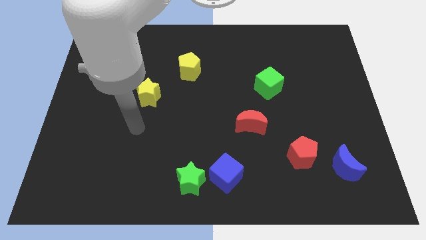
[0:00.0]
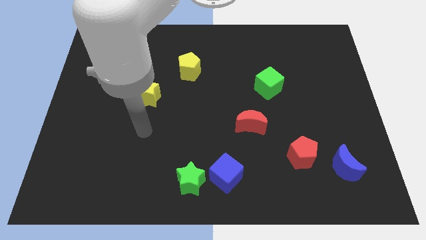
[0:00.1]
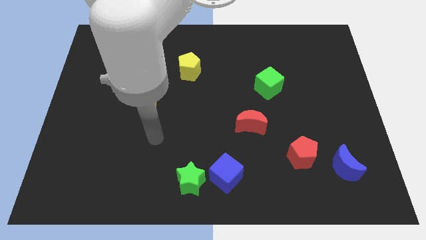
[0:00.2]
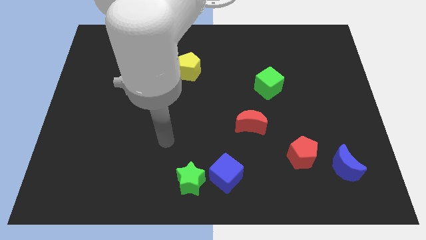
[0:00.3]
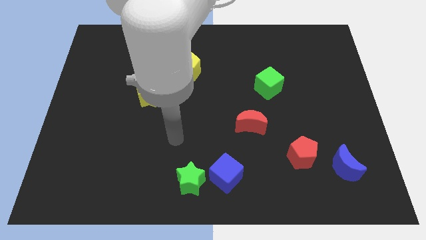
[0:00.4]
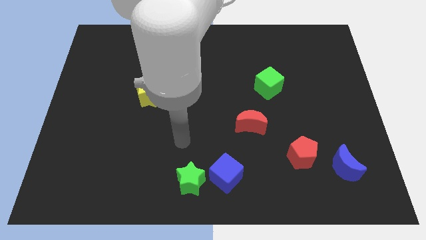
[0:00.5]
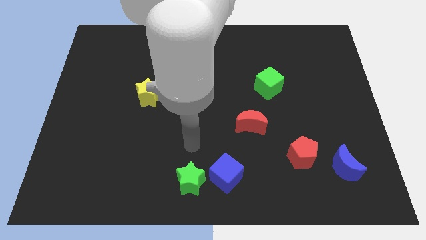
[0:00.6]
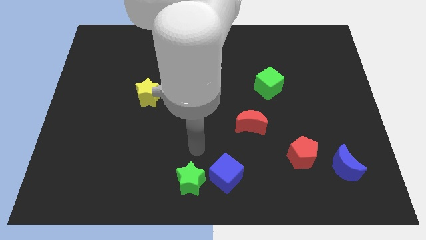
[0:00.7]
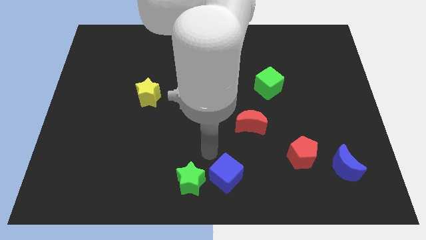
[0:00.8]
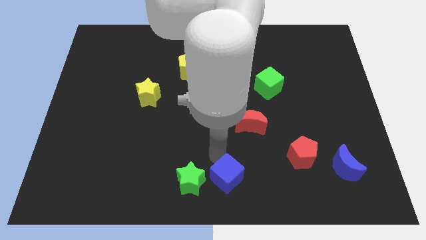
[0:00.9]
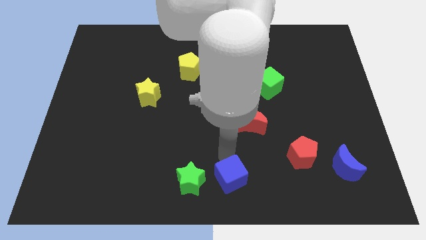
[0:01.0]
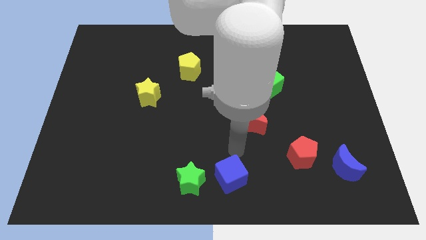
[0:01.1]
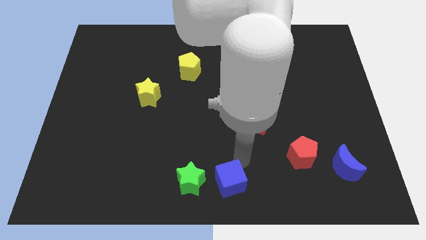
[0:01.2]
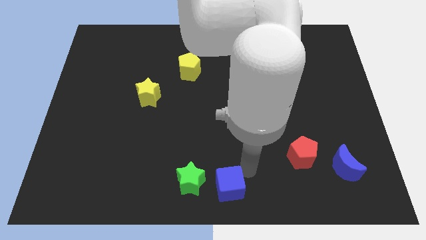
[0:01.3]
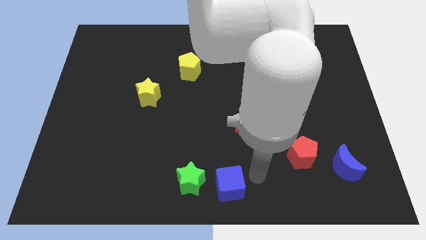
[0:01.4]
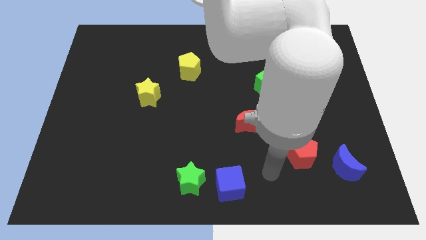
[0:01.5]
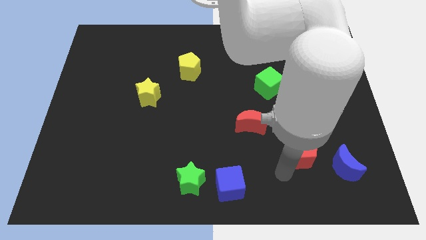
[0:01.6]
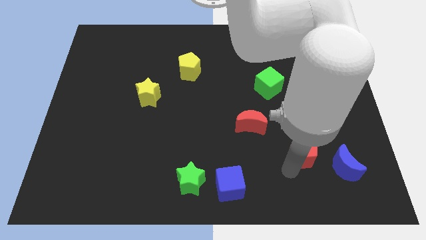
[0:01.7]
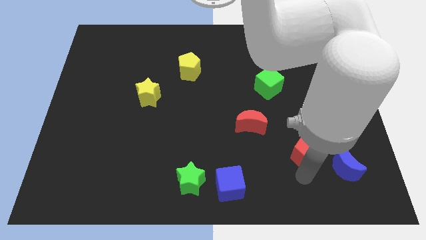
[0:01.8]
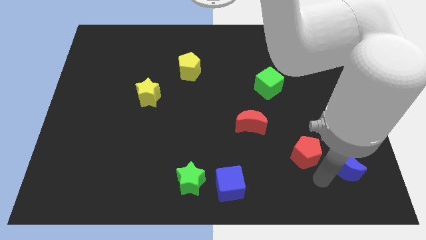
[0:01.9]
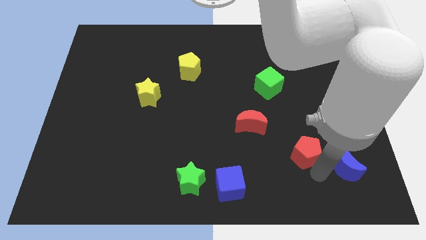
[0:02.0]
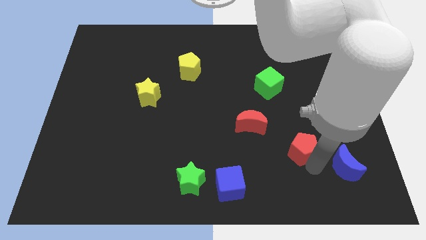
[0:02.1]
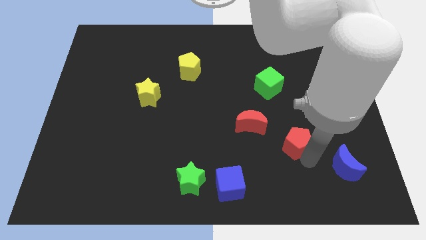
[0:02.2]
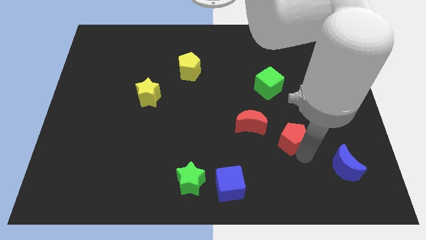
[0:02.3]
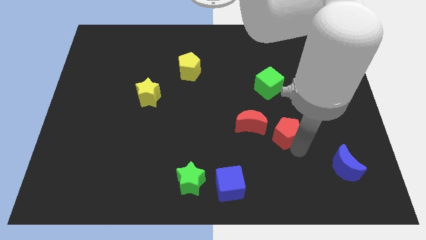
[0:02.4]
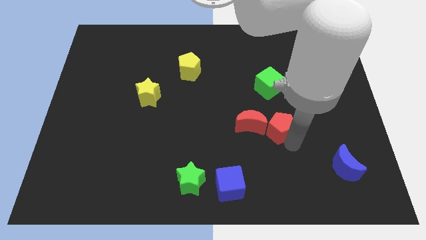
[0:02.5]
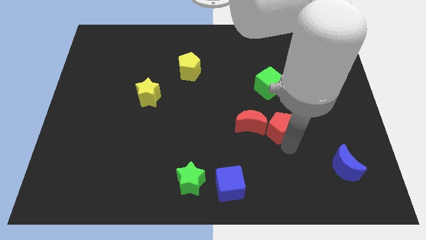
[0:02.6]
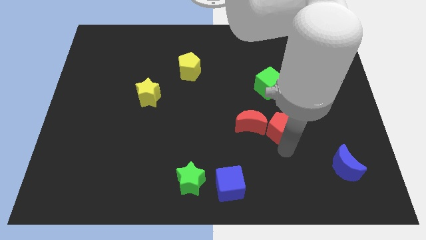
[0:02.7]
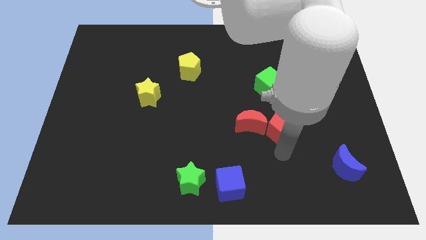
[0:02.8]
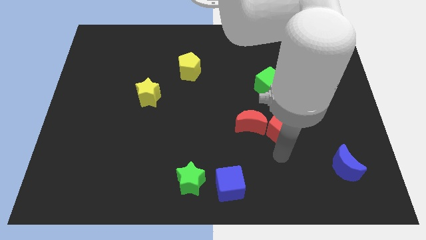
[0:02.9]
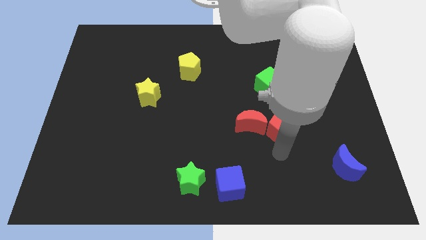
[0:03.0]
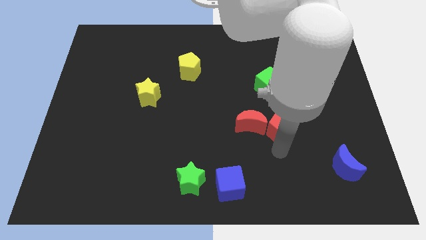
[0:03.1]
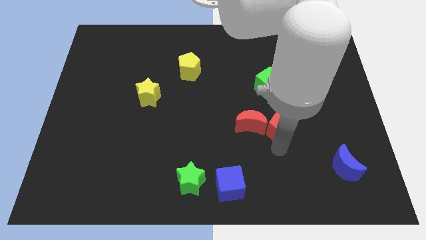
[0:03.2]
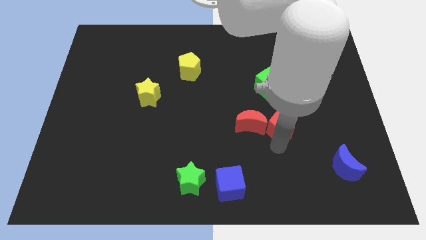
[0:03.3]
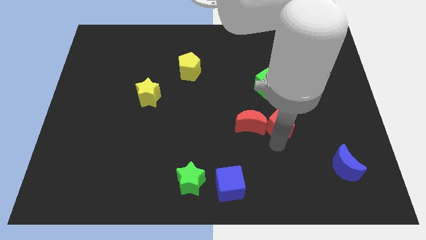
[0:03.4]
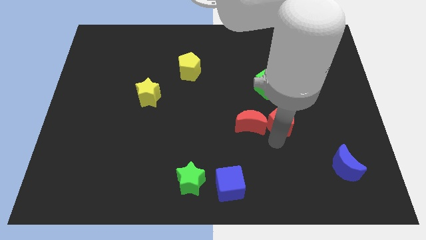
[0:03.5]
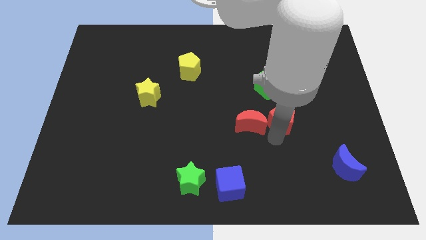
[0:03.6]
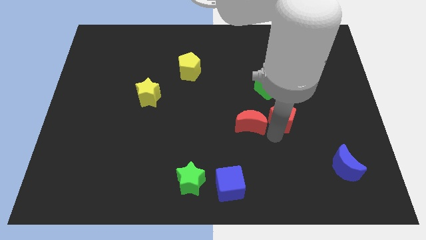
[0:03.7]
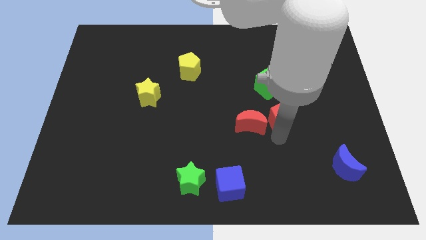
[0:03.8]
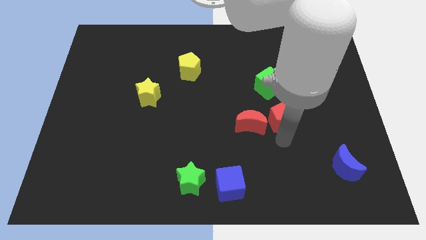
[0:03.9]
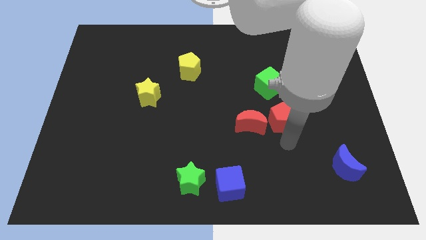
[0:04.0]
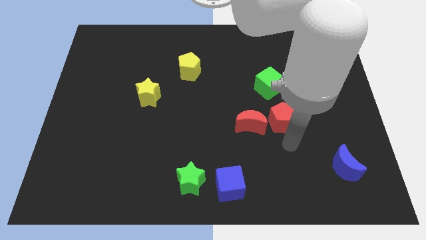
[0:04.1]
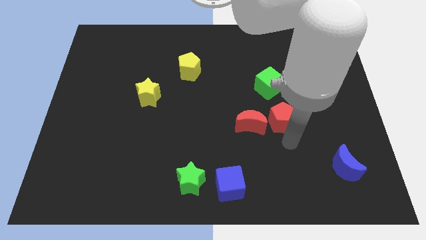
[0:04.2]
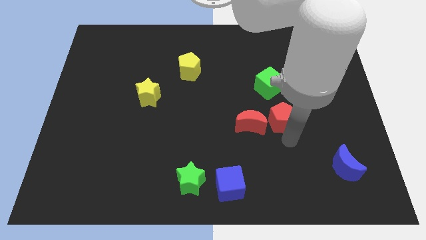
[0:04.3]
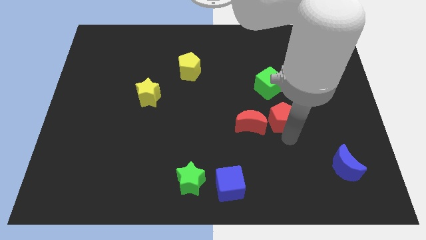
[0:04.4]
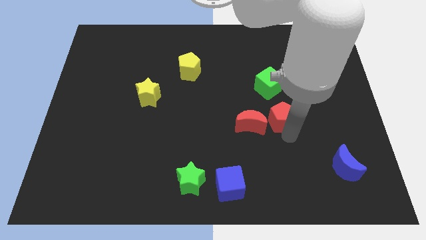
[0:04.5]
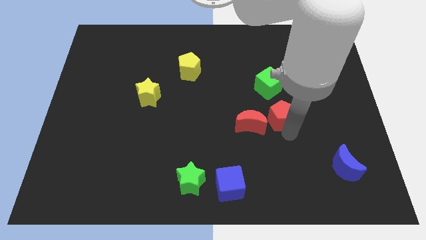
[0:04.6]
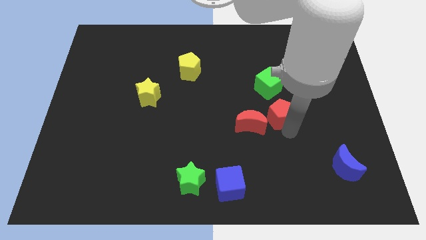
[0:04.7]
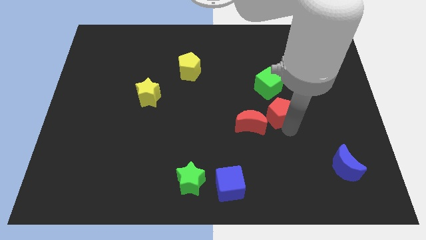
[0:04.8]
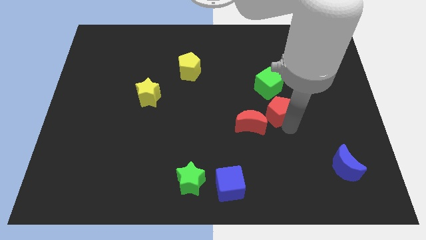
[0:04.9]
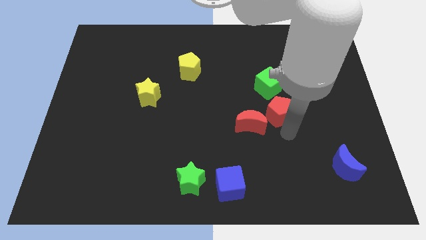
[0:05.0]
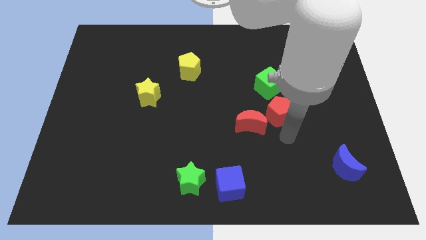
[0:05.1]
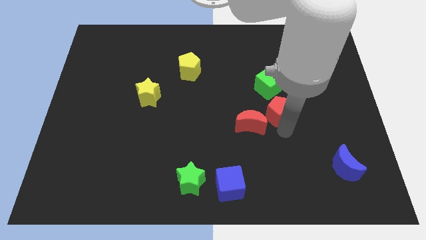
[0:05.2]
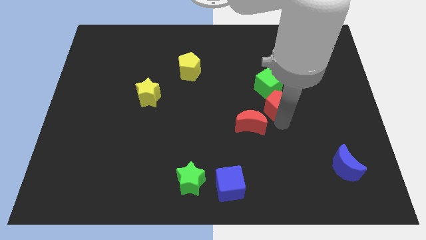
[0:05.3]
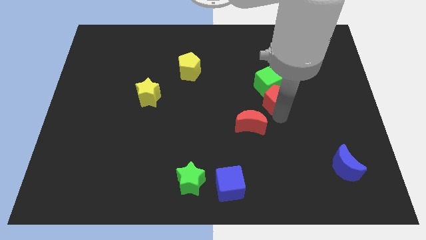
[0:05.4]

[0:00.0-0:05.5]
push the red pentagon close to the green cube

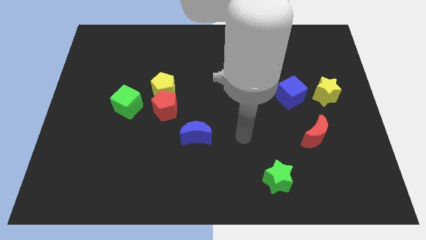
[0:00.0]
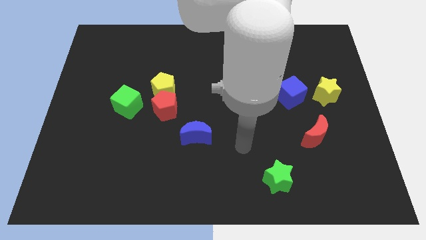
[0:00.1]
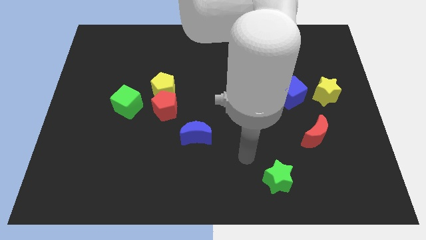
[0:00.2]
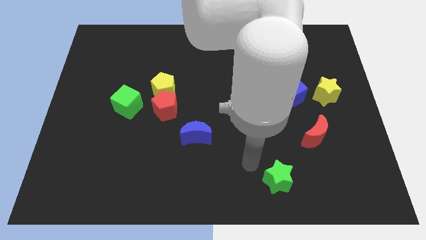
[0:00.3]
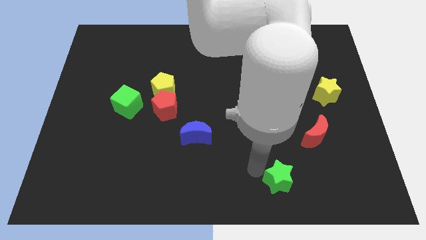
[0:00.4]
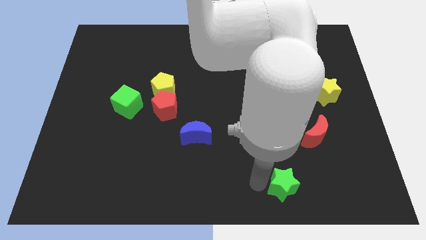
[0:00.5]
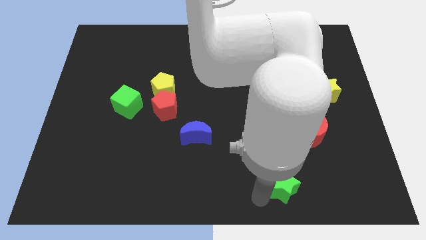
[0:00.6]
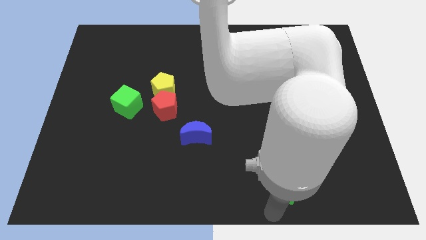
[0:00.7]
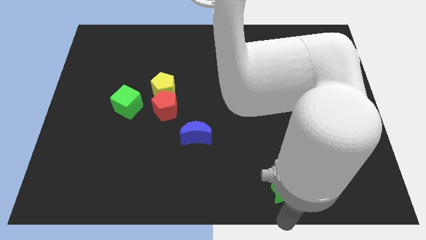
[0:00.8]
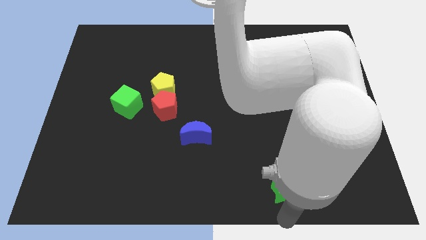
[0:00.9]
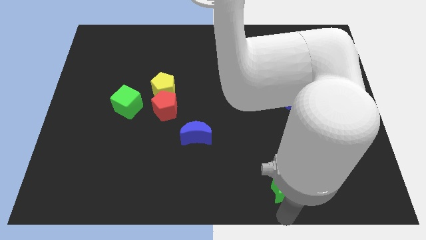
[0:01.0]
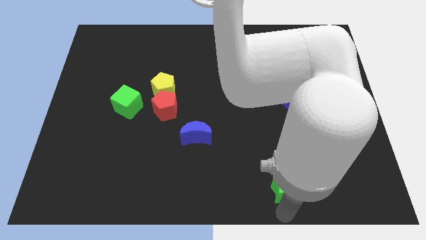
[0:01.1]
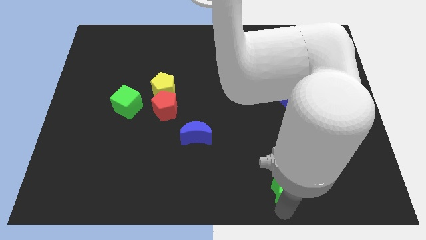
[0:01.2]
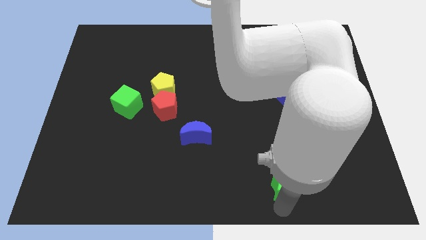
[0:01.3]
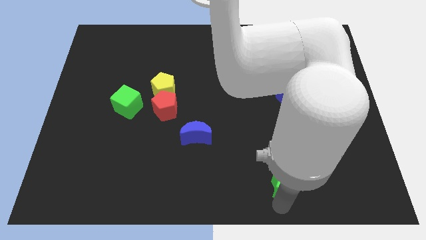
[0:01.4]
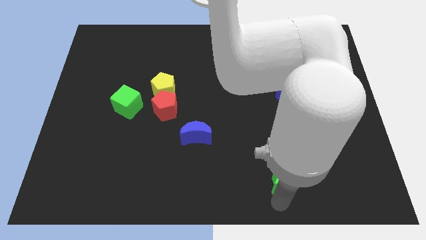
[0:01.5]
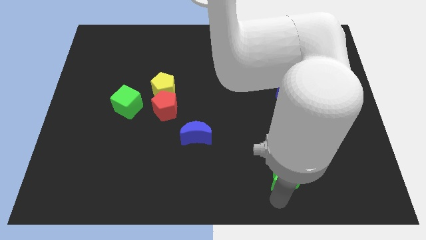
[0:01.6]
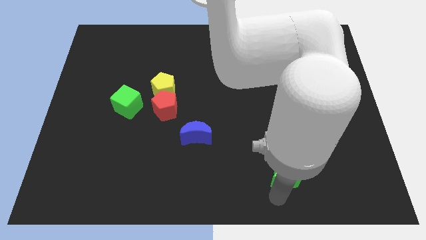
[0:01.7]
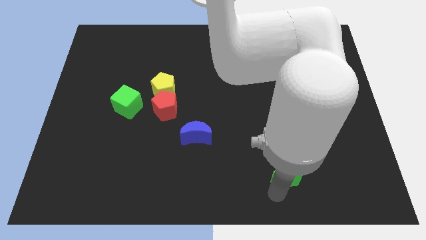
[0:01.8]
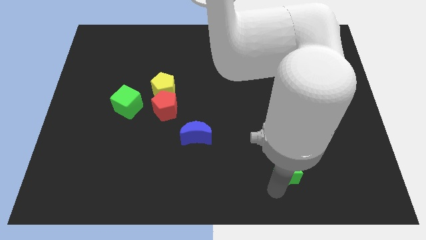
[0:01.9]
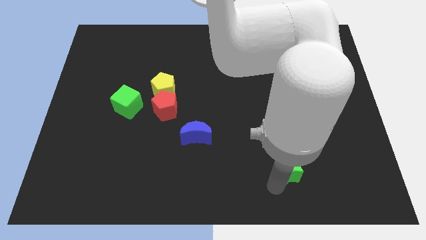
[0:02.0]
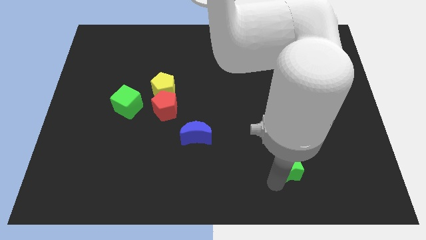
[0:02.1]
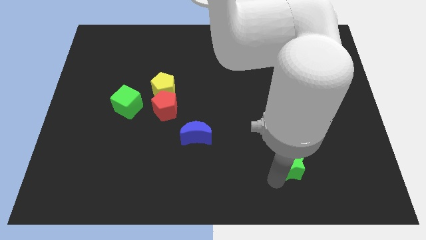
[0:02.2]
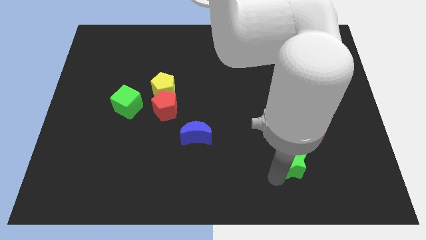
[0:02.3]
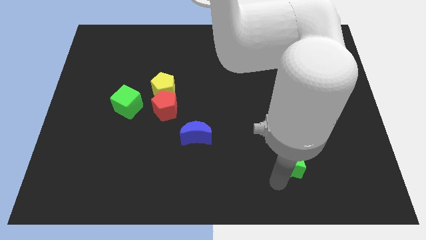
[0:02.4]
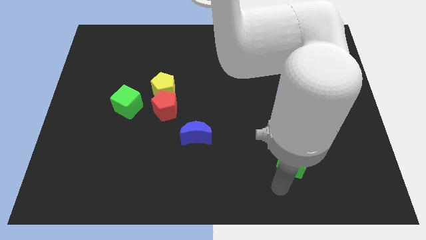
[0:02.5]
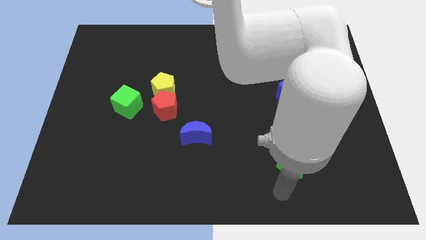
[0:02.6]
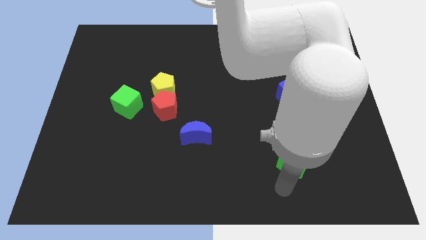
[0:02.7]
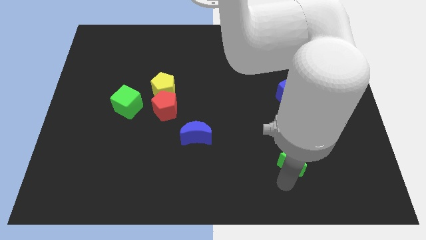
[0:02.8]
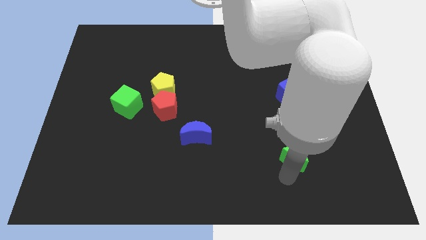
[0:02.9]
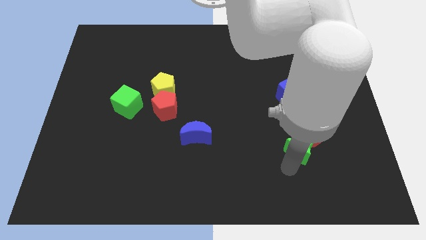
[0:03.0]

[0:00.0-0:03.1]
push the green star to the red moon
